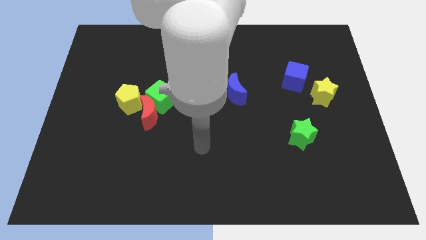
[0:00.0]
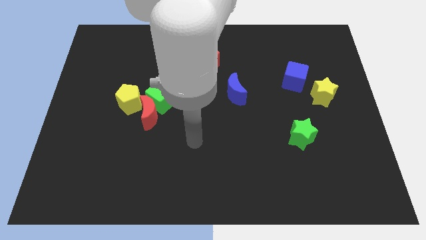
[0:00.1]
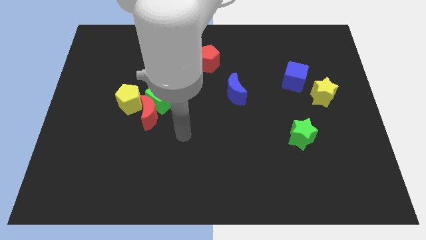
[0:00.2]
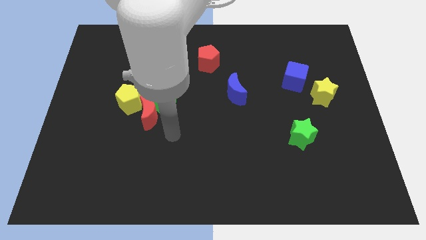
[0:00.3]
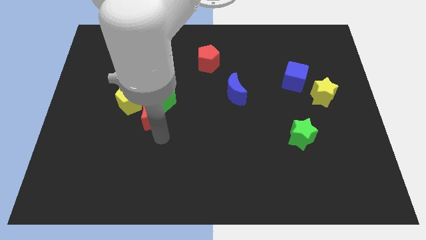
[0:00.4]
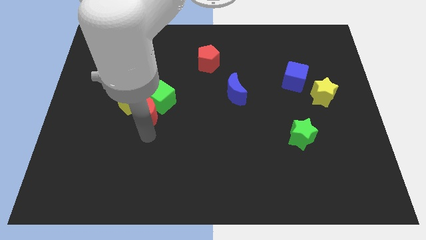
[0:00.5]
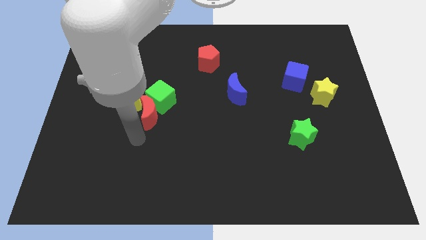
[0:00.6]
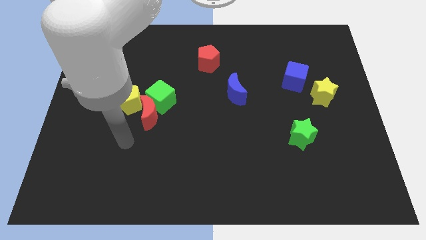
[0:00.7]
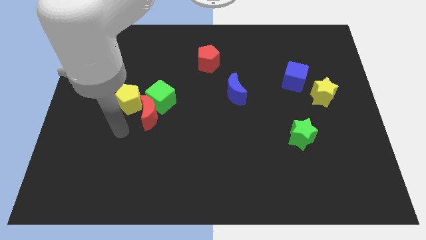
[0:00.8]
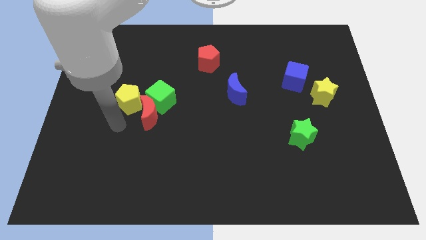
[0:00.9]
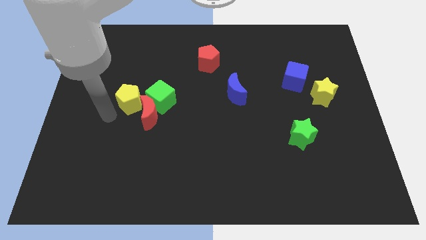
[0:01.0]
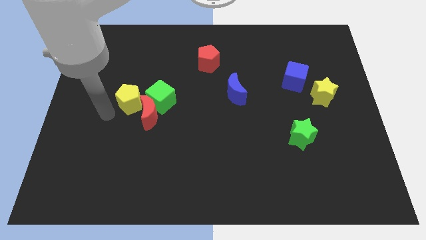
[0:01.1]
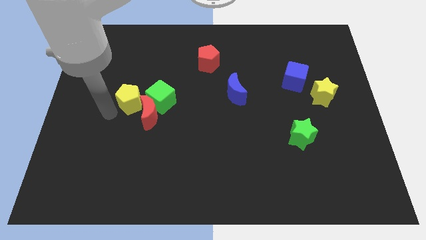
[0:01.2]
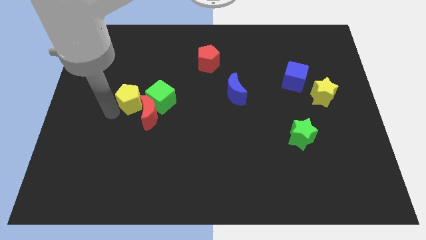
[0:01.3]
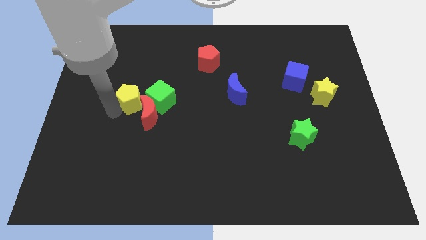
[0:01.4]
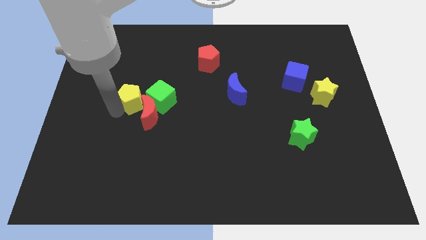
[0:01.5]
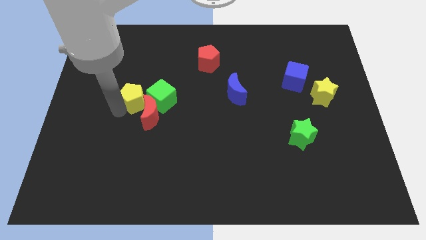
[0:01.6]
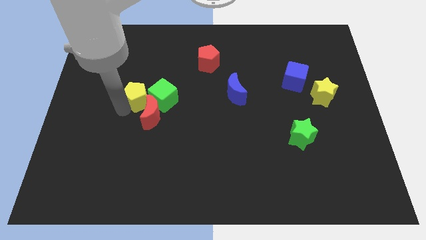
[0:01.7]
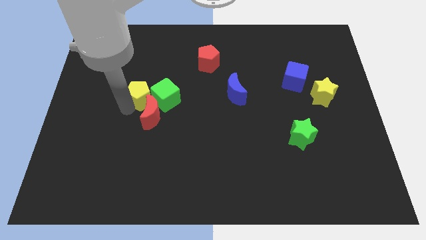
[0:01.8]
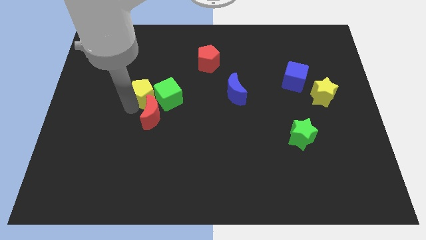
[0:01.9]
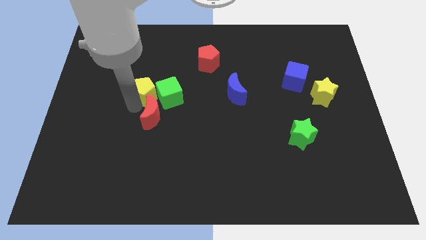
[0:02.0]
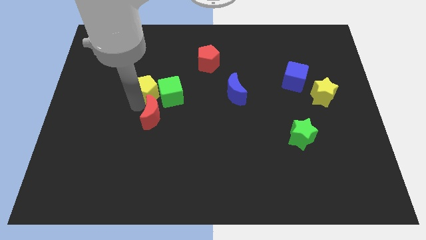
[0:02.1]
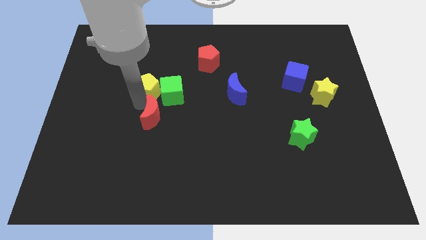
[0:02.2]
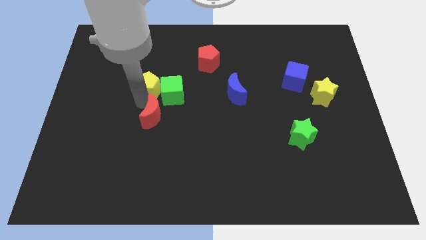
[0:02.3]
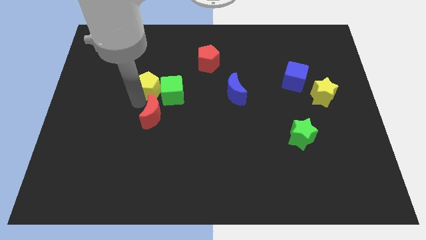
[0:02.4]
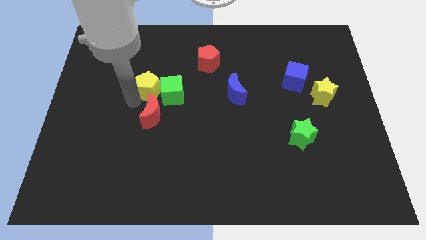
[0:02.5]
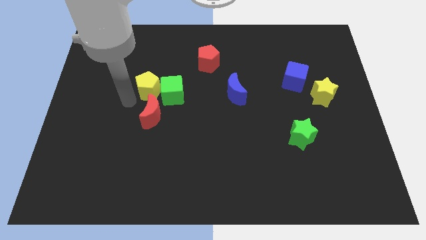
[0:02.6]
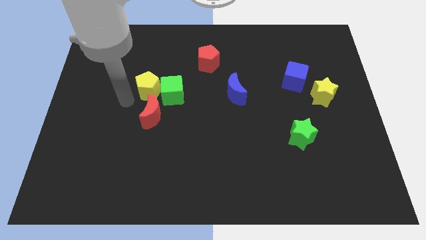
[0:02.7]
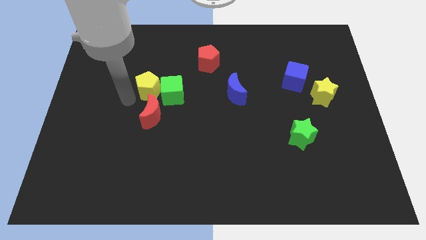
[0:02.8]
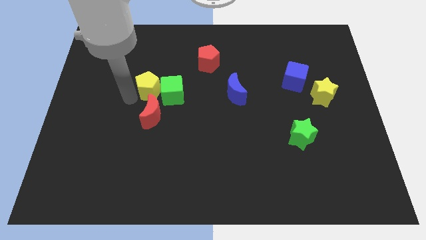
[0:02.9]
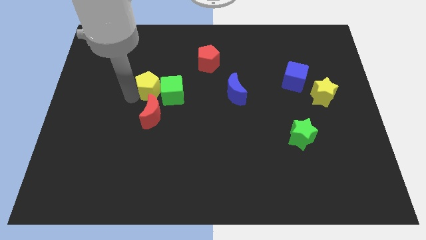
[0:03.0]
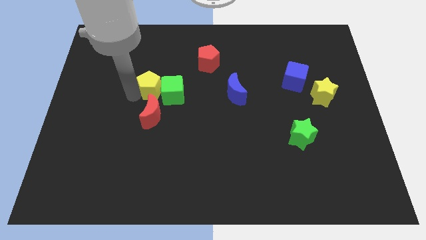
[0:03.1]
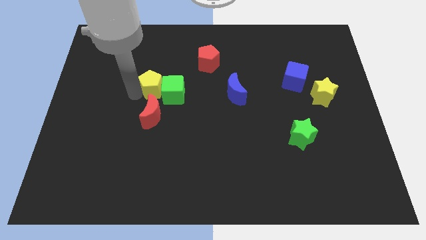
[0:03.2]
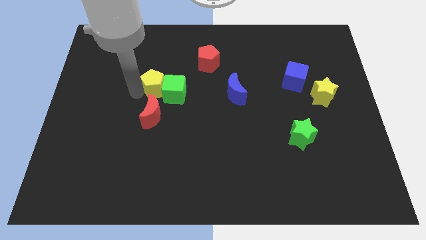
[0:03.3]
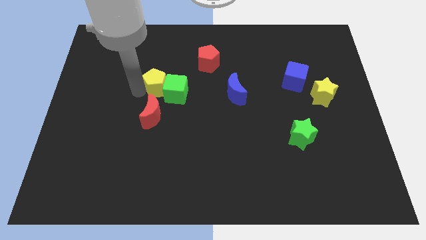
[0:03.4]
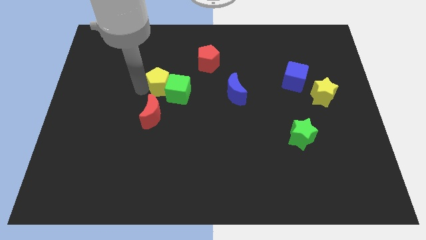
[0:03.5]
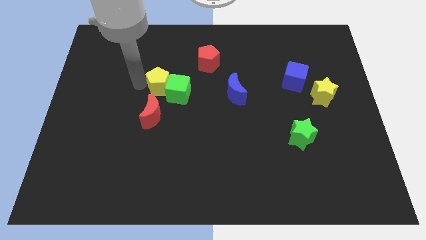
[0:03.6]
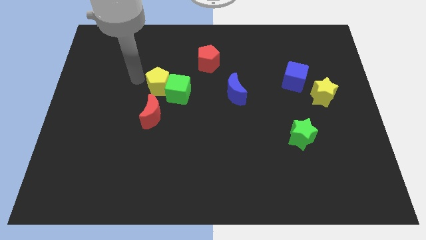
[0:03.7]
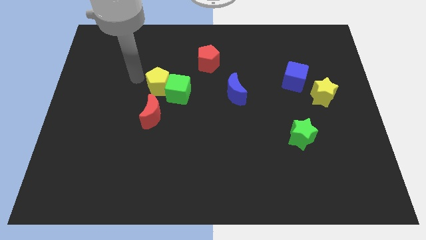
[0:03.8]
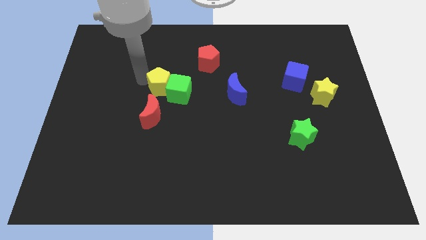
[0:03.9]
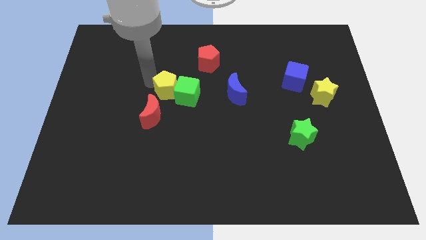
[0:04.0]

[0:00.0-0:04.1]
move the yellow pentagon right a bit

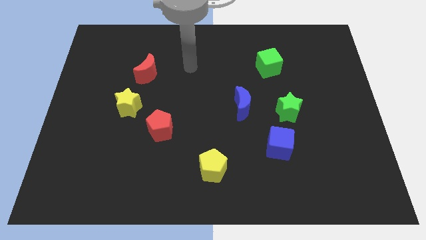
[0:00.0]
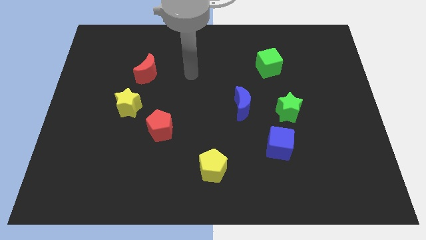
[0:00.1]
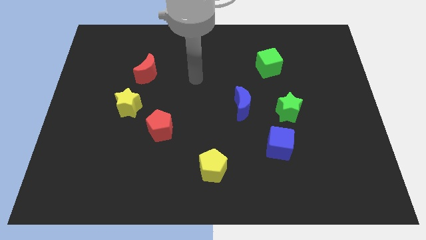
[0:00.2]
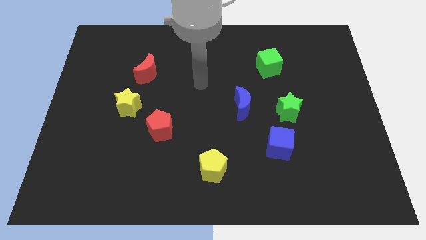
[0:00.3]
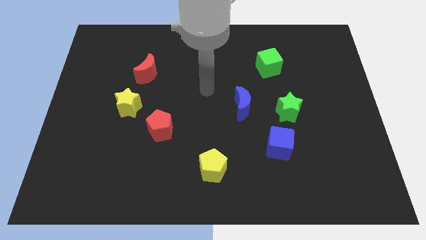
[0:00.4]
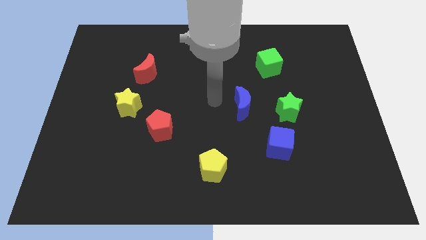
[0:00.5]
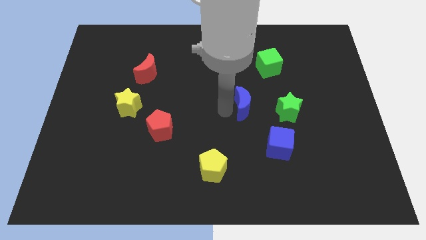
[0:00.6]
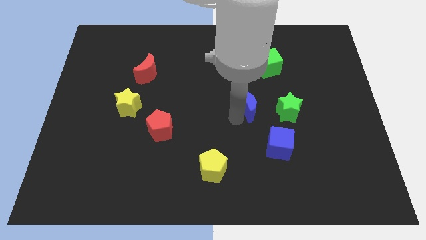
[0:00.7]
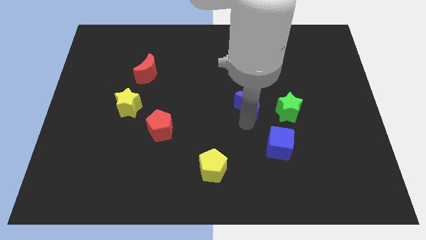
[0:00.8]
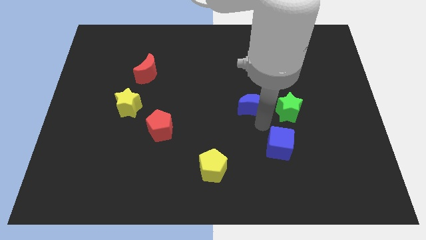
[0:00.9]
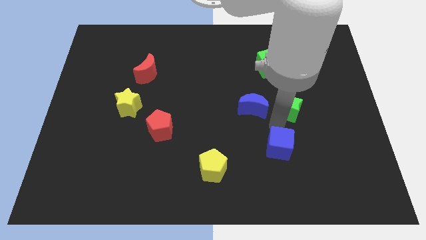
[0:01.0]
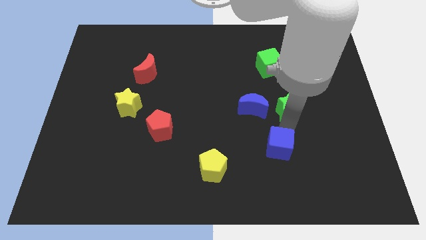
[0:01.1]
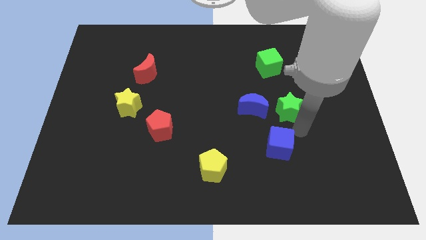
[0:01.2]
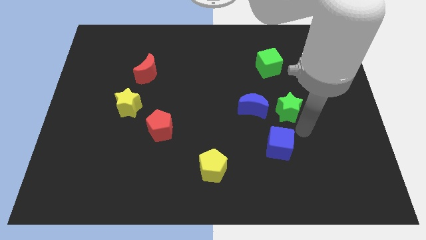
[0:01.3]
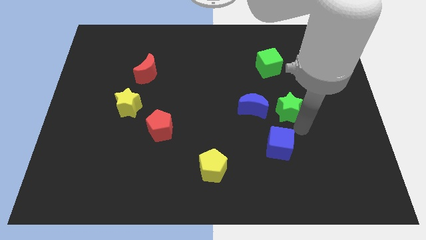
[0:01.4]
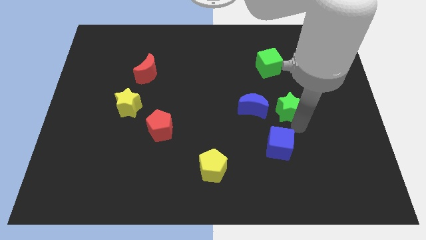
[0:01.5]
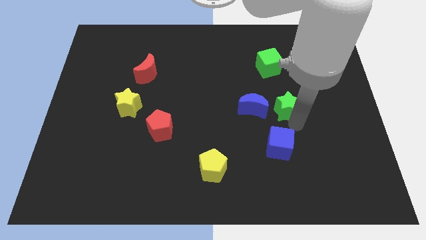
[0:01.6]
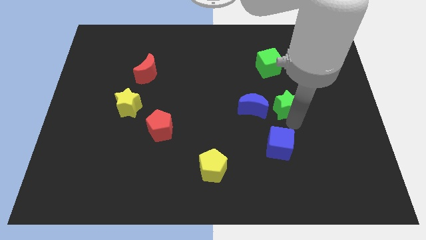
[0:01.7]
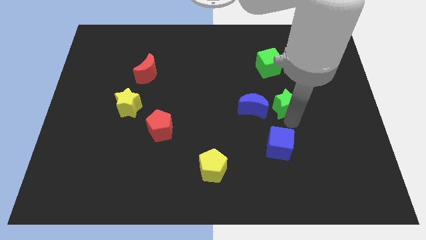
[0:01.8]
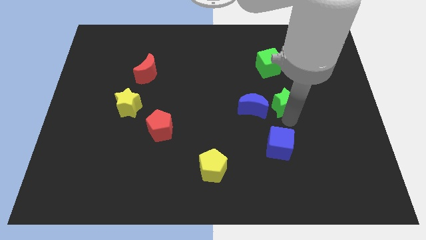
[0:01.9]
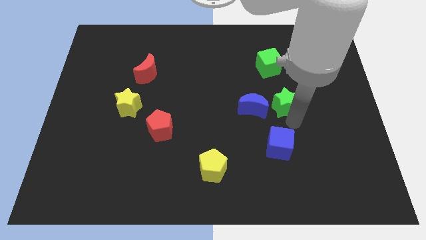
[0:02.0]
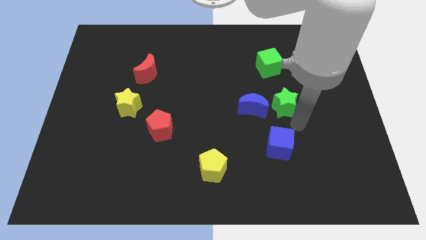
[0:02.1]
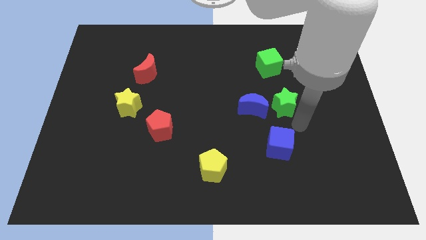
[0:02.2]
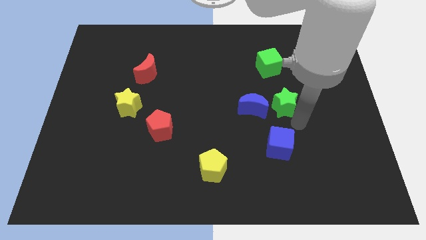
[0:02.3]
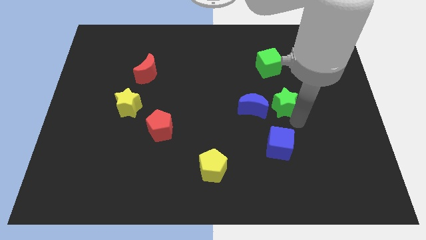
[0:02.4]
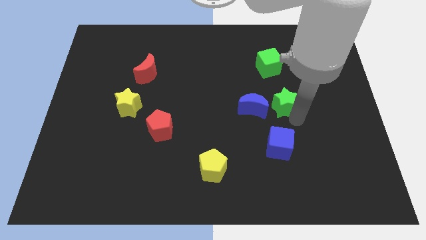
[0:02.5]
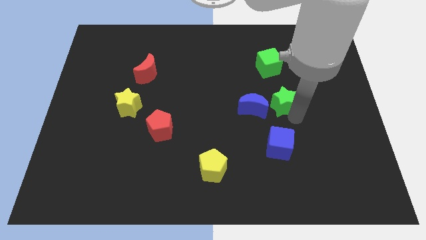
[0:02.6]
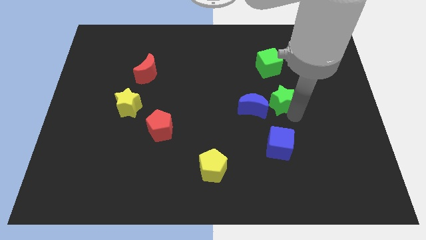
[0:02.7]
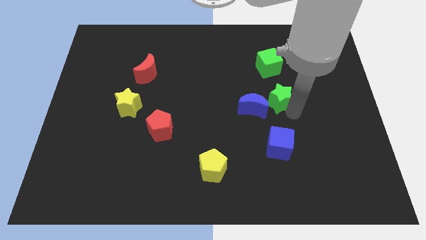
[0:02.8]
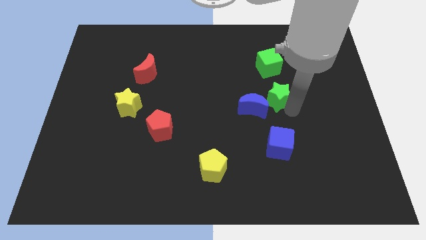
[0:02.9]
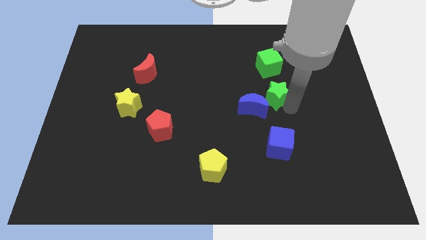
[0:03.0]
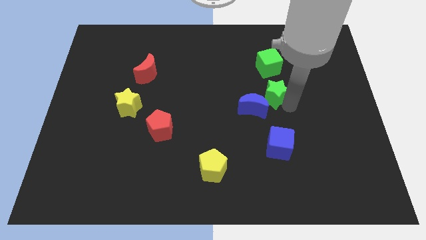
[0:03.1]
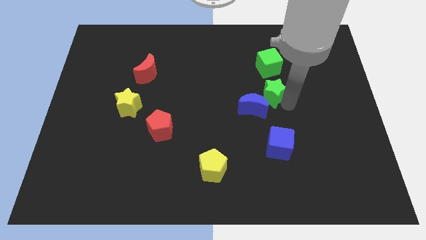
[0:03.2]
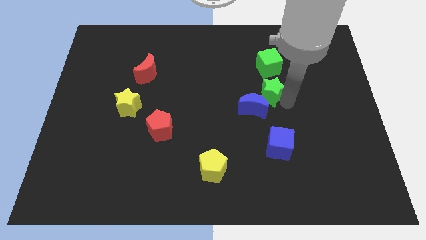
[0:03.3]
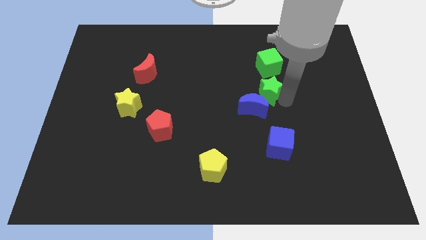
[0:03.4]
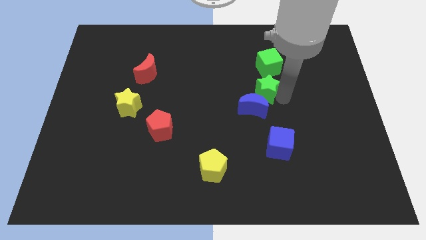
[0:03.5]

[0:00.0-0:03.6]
push the green star diagonally upwards and to the left somewhat

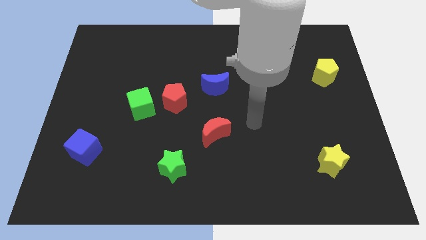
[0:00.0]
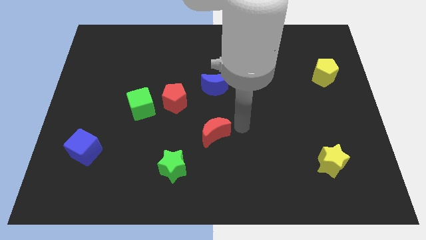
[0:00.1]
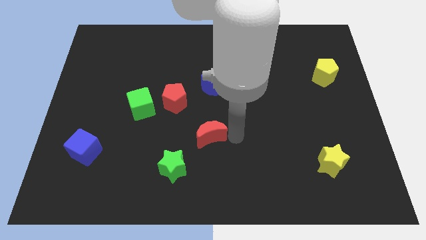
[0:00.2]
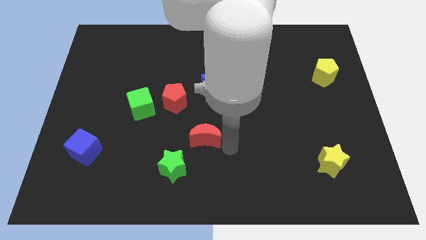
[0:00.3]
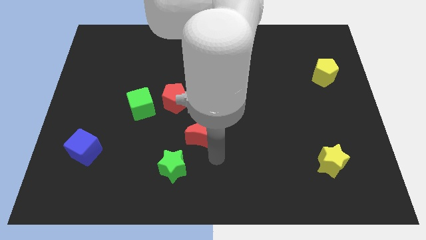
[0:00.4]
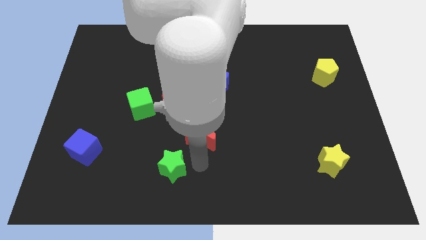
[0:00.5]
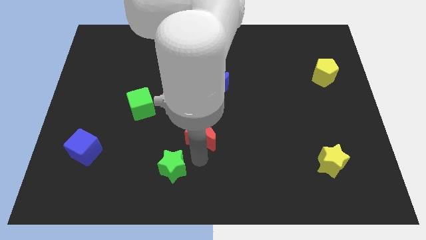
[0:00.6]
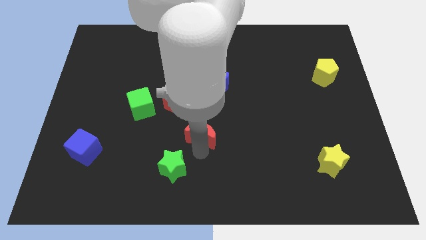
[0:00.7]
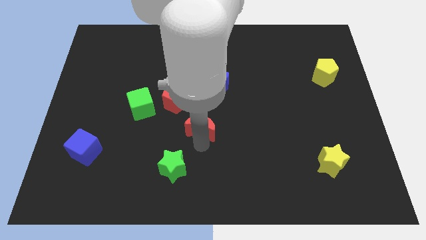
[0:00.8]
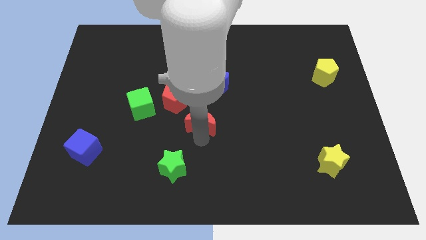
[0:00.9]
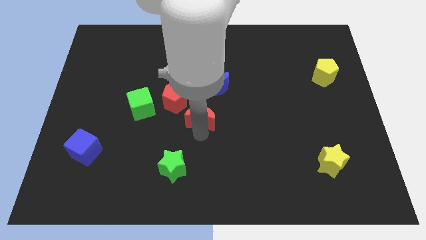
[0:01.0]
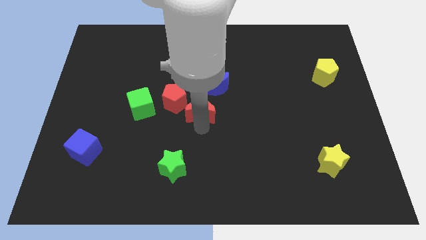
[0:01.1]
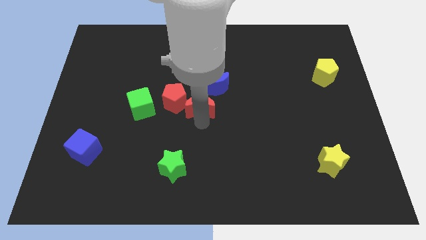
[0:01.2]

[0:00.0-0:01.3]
push the red moon somewhat up and to the left diagonally
